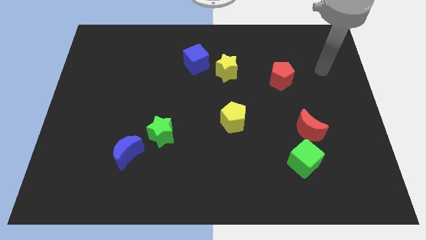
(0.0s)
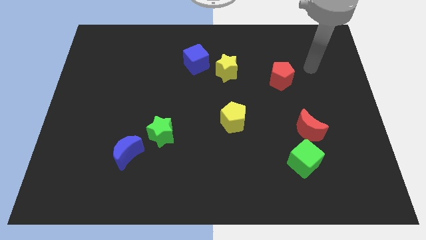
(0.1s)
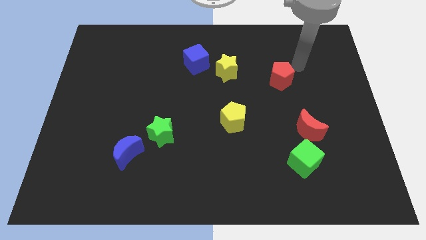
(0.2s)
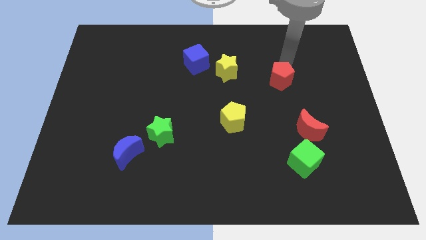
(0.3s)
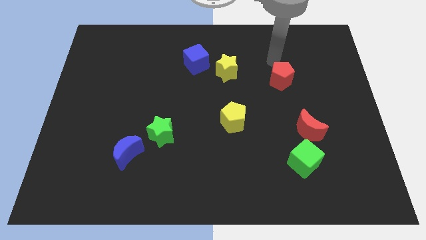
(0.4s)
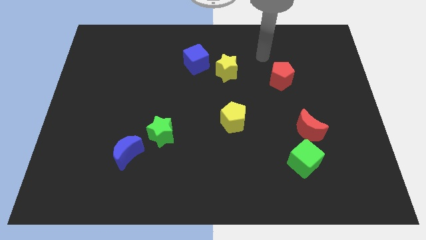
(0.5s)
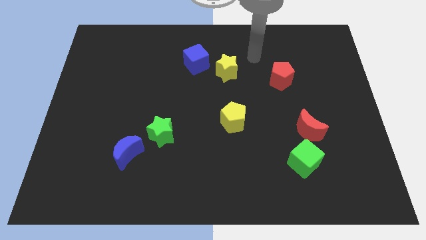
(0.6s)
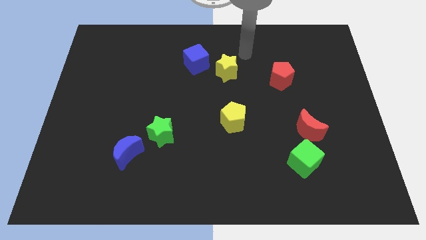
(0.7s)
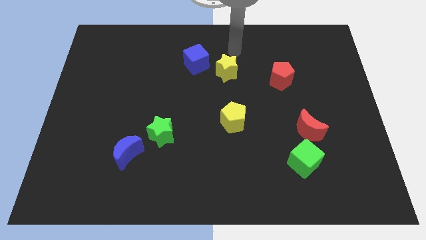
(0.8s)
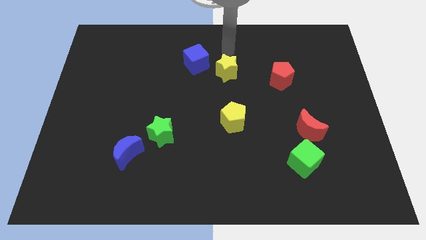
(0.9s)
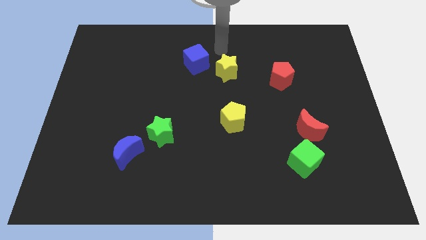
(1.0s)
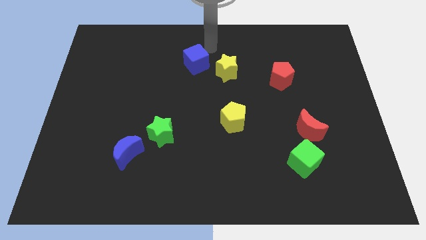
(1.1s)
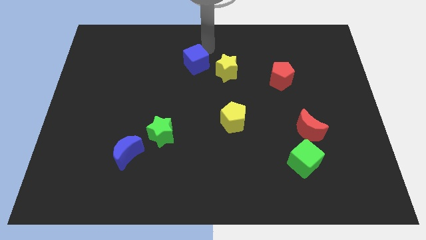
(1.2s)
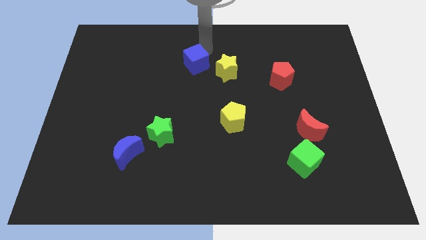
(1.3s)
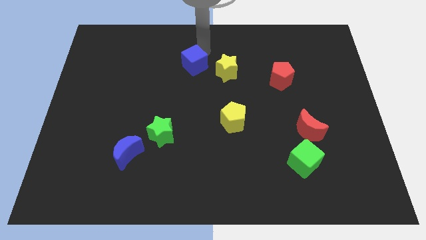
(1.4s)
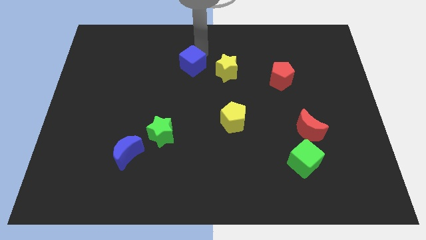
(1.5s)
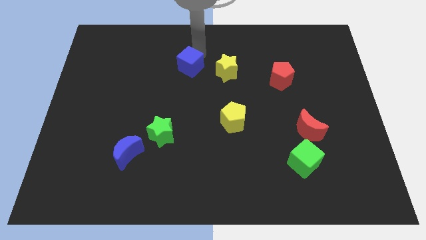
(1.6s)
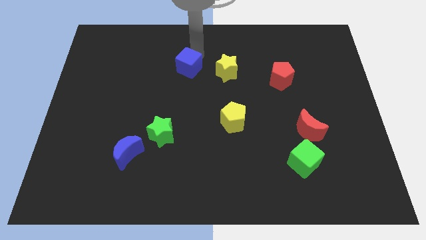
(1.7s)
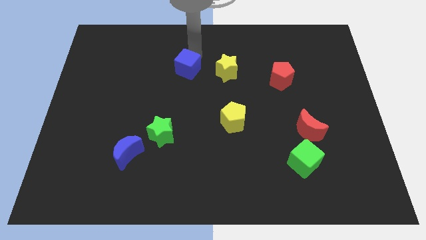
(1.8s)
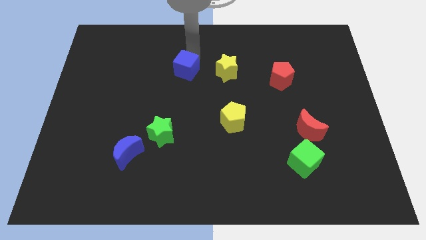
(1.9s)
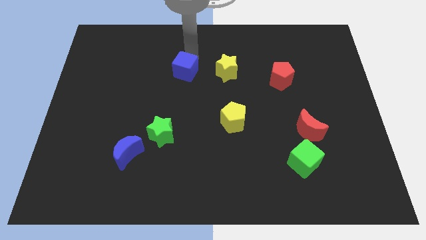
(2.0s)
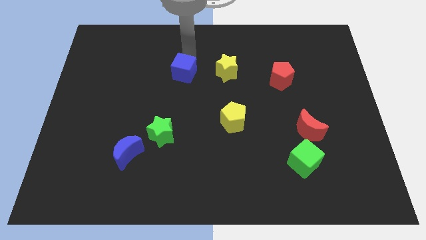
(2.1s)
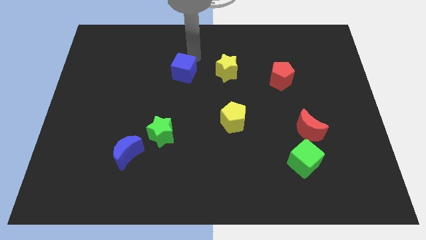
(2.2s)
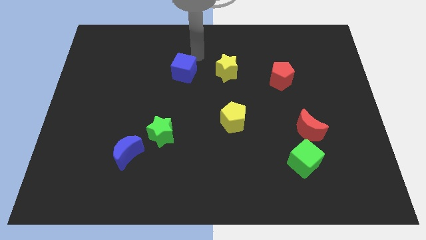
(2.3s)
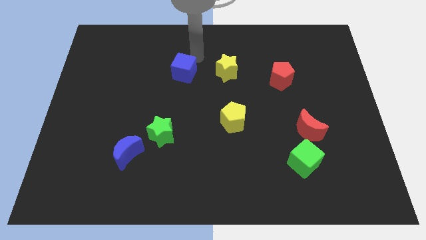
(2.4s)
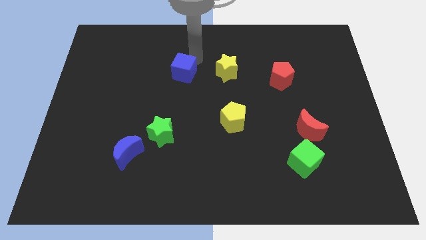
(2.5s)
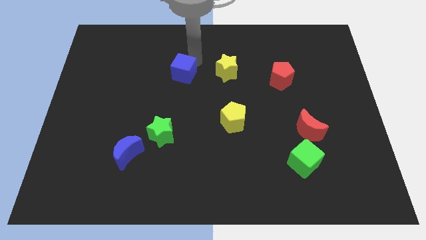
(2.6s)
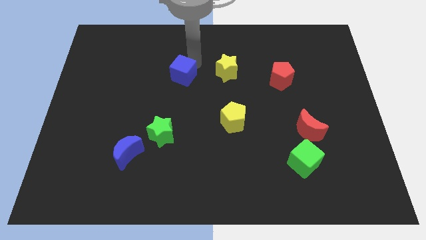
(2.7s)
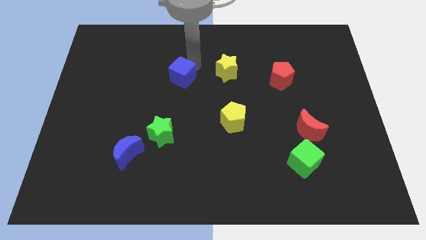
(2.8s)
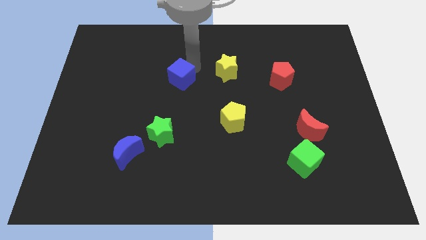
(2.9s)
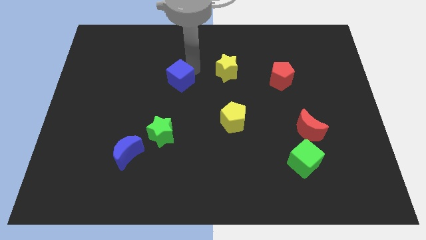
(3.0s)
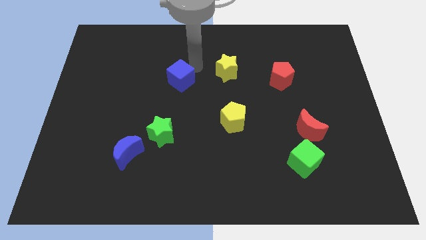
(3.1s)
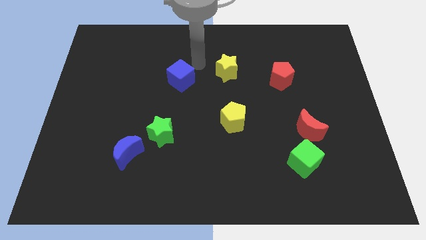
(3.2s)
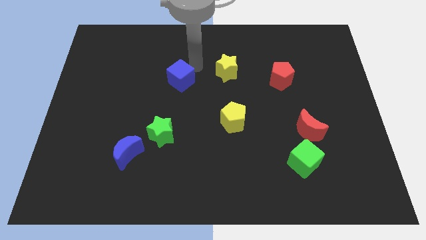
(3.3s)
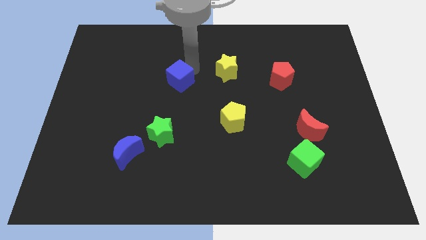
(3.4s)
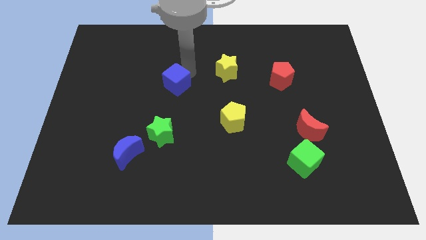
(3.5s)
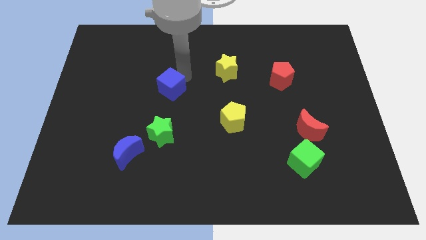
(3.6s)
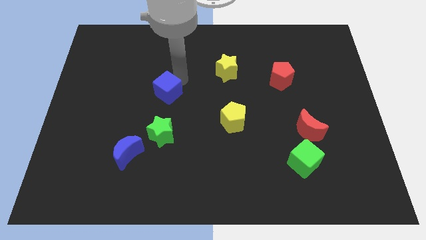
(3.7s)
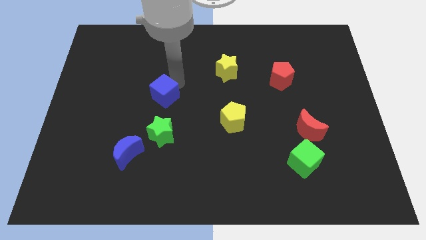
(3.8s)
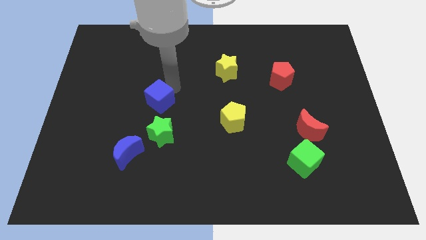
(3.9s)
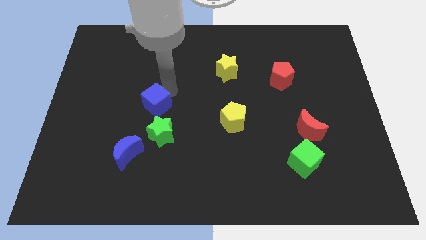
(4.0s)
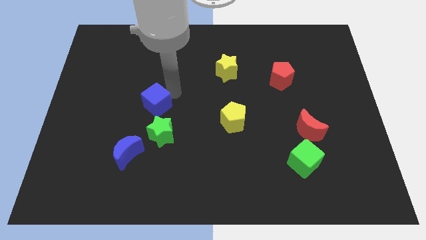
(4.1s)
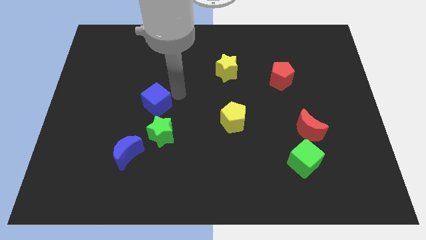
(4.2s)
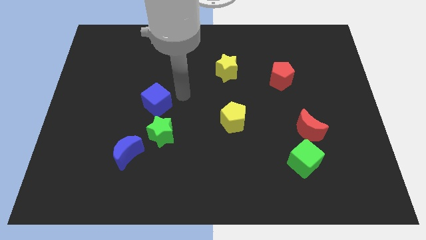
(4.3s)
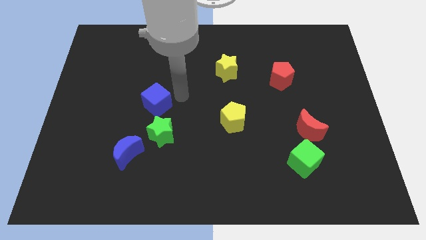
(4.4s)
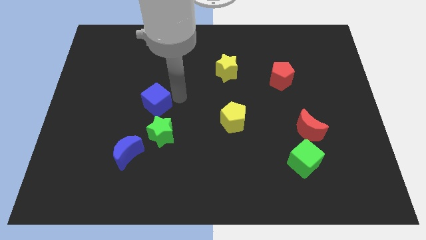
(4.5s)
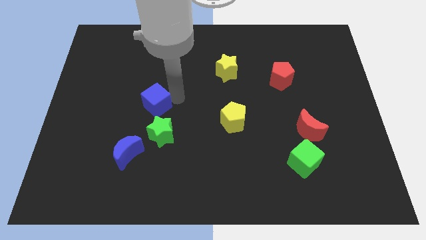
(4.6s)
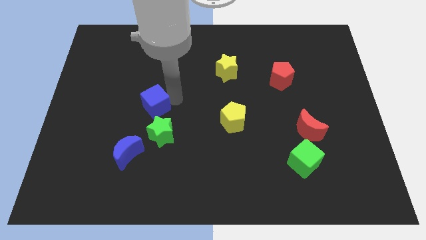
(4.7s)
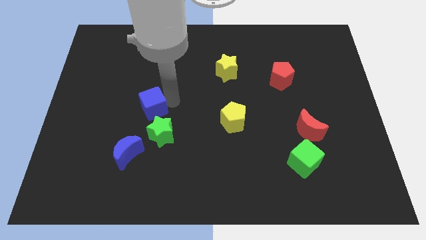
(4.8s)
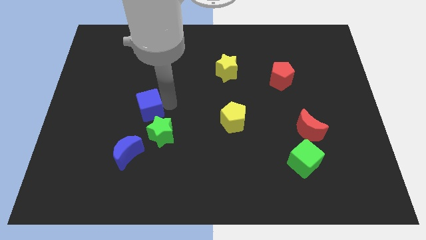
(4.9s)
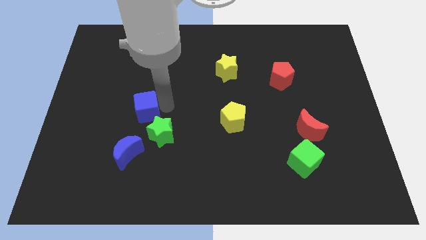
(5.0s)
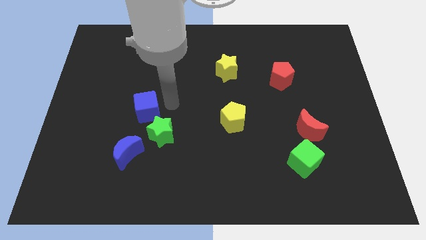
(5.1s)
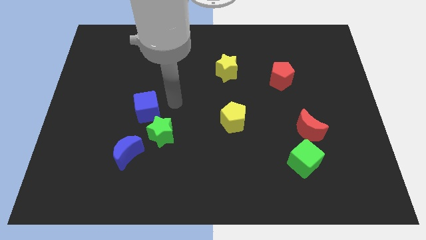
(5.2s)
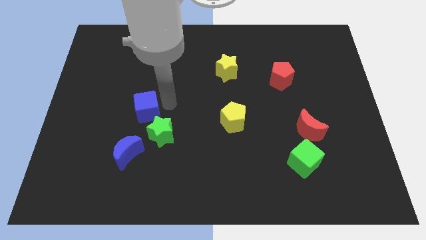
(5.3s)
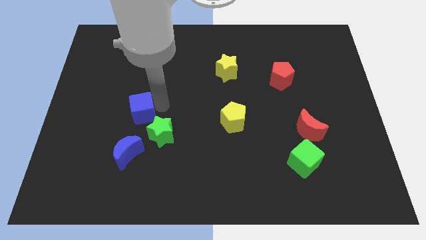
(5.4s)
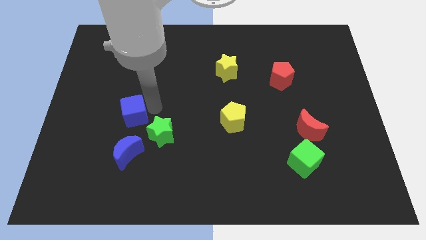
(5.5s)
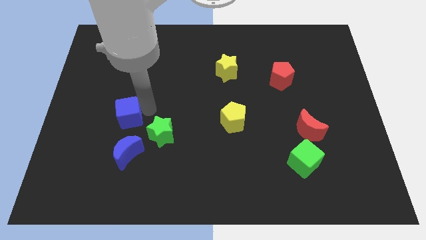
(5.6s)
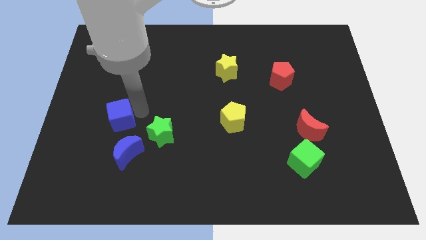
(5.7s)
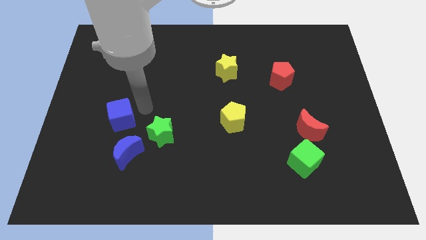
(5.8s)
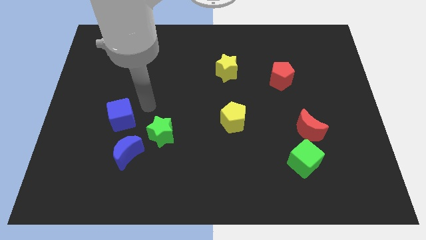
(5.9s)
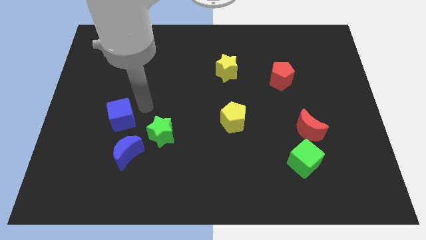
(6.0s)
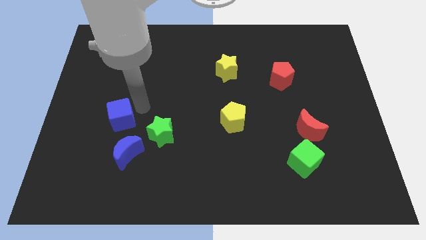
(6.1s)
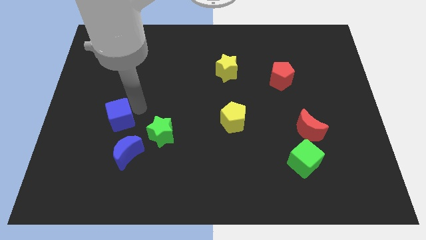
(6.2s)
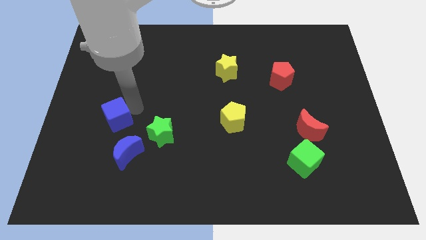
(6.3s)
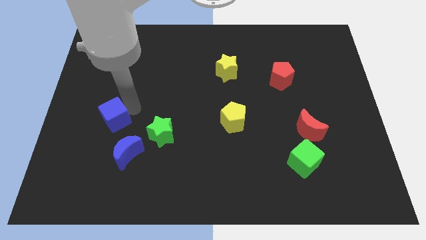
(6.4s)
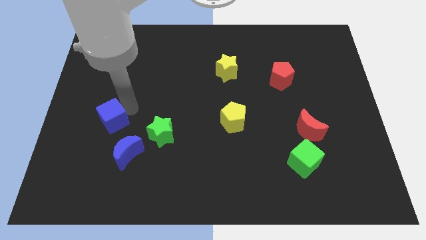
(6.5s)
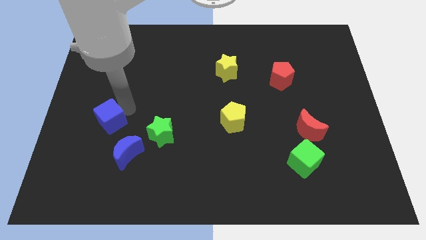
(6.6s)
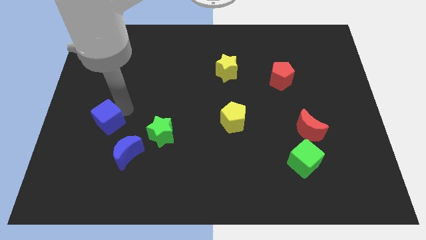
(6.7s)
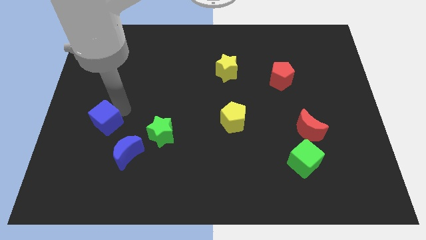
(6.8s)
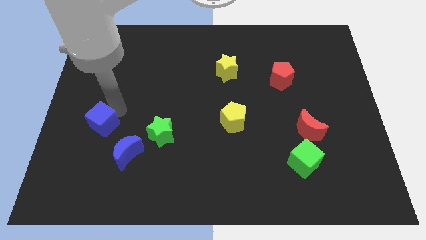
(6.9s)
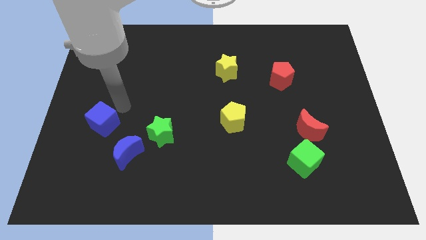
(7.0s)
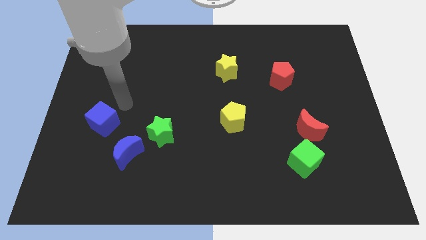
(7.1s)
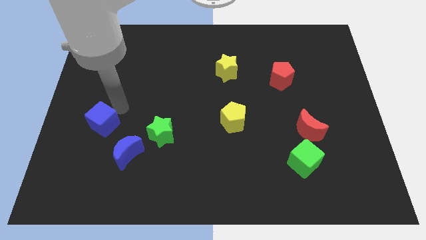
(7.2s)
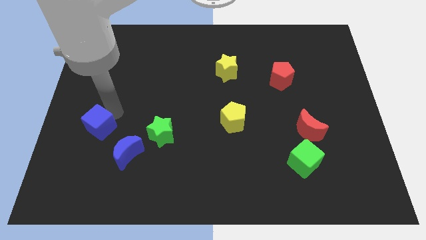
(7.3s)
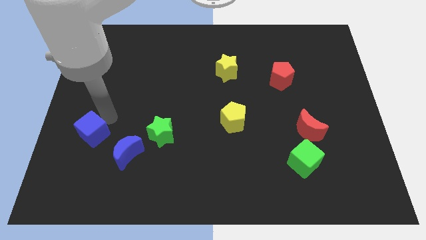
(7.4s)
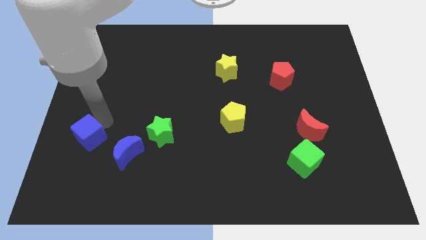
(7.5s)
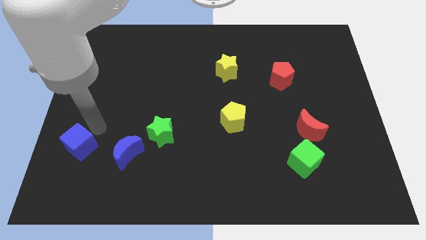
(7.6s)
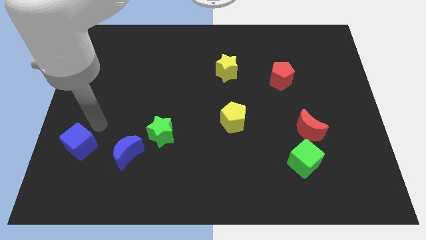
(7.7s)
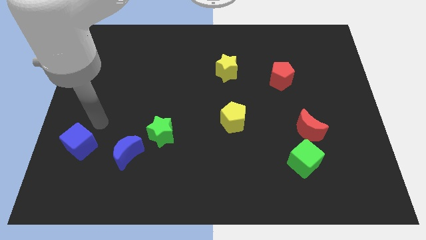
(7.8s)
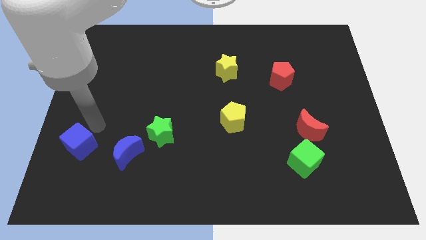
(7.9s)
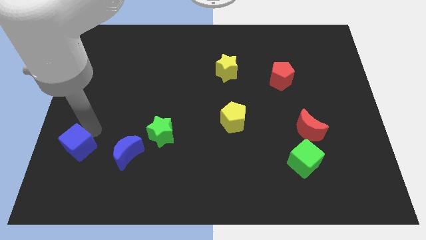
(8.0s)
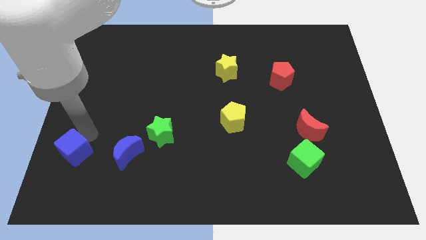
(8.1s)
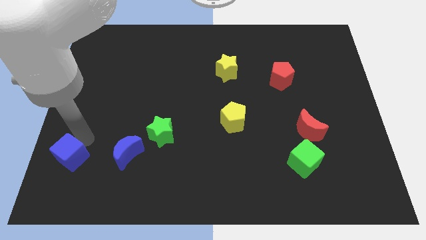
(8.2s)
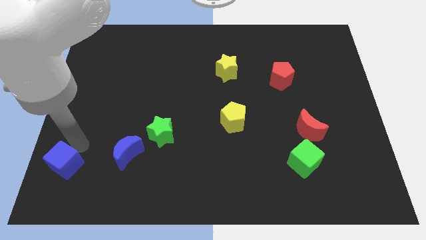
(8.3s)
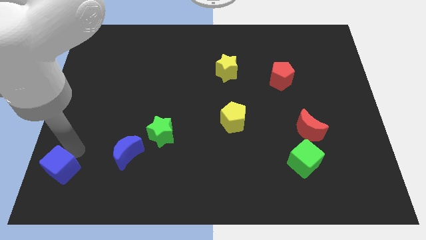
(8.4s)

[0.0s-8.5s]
put the blue cube to the lower left corner
